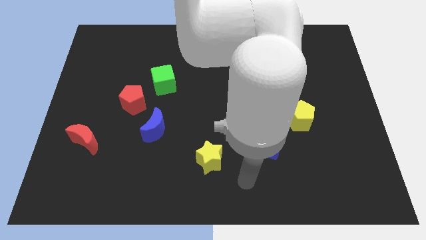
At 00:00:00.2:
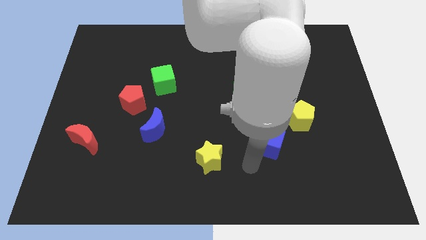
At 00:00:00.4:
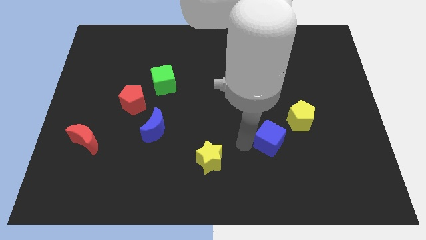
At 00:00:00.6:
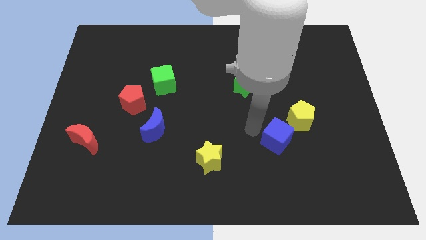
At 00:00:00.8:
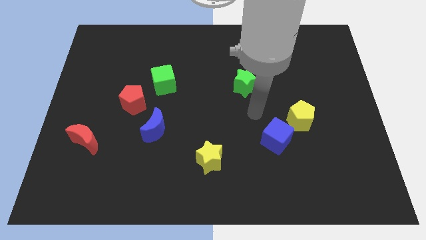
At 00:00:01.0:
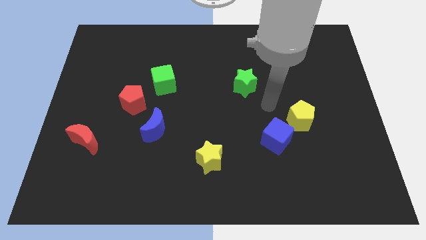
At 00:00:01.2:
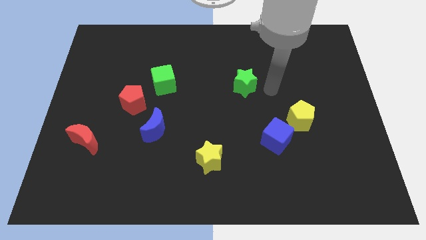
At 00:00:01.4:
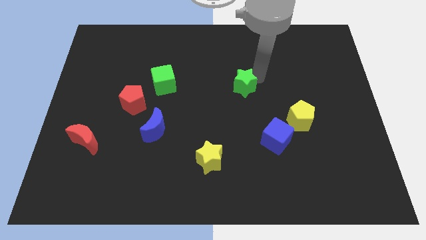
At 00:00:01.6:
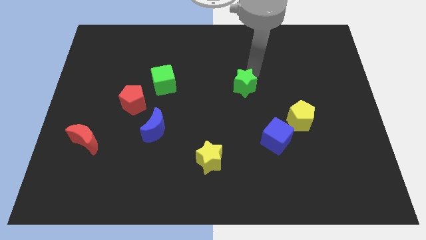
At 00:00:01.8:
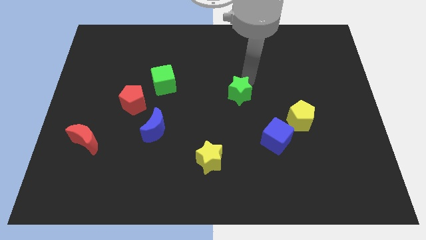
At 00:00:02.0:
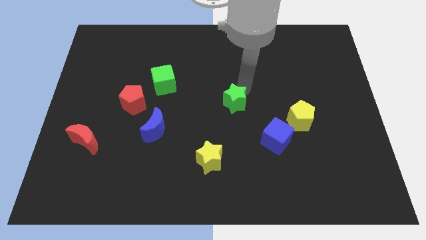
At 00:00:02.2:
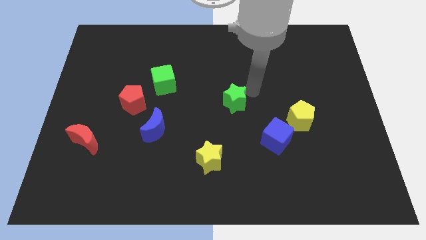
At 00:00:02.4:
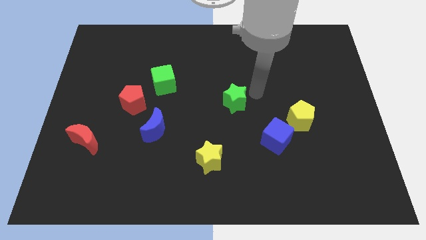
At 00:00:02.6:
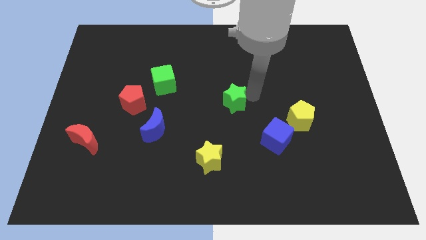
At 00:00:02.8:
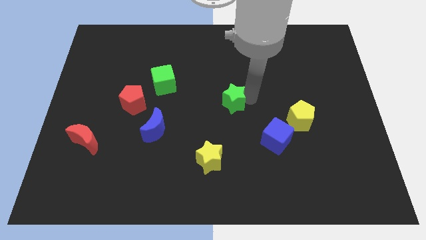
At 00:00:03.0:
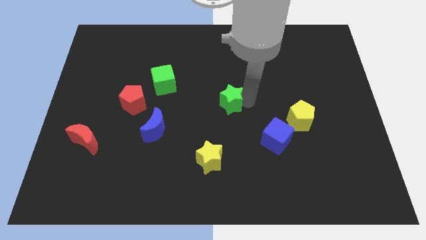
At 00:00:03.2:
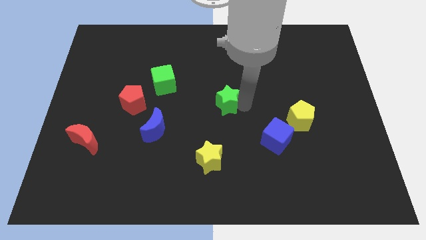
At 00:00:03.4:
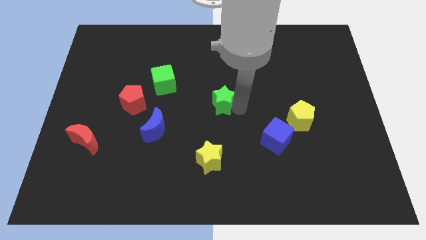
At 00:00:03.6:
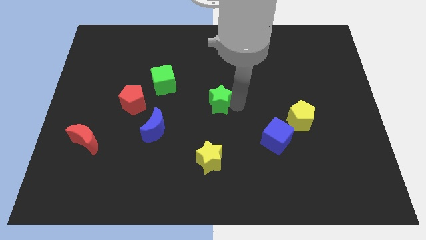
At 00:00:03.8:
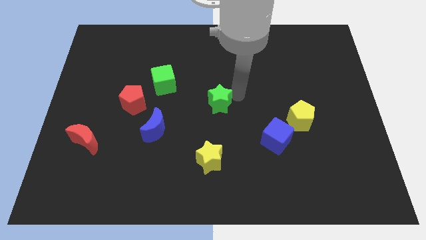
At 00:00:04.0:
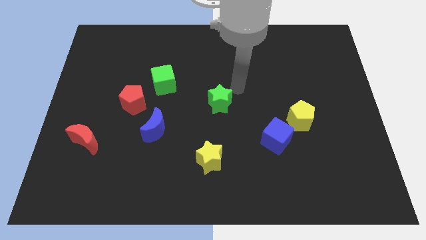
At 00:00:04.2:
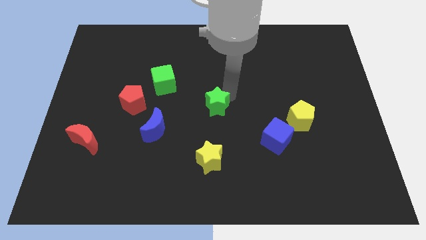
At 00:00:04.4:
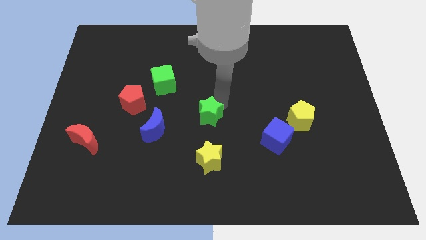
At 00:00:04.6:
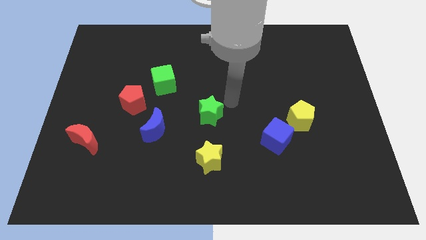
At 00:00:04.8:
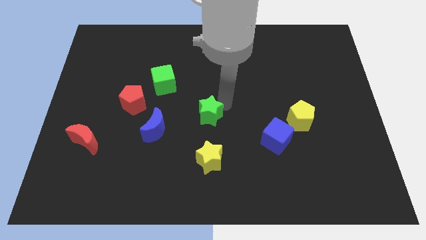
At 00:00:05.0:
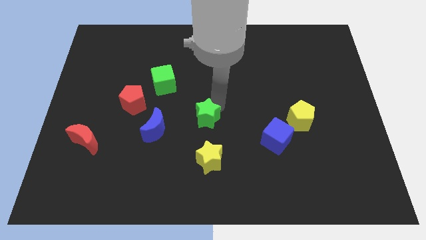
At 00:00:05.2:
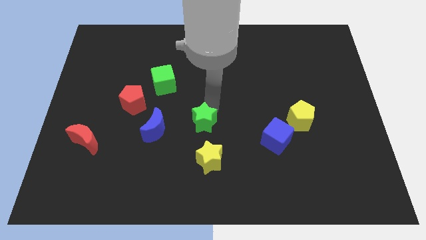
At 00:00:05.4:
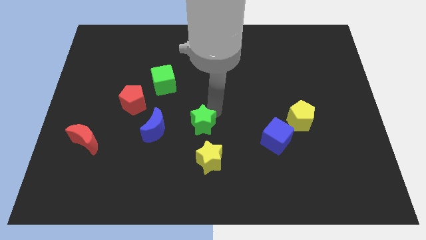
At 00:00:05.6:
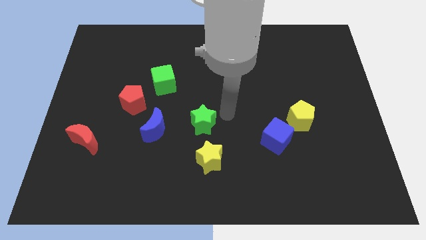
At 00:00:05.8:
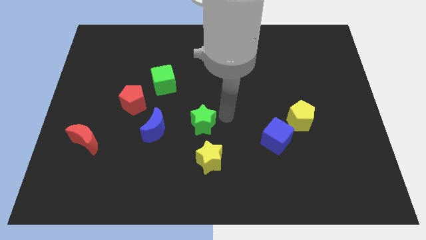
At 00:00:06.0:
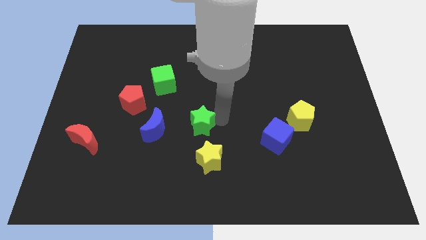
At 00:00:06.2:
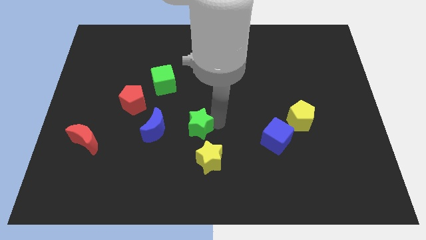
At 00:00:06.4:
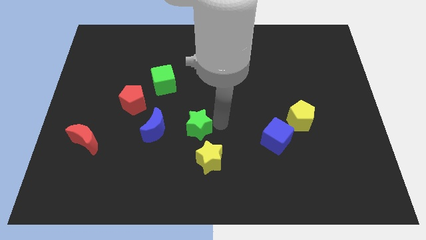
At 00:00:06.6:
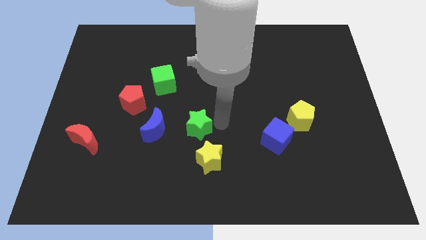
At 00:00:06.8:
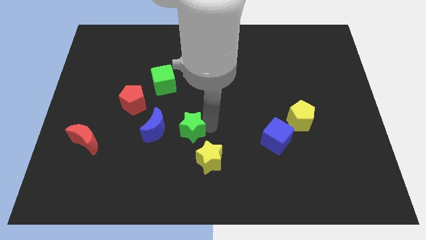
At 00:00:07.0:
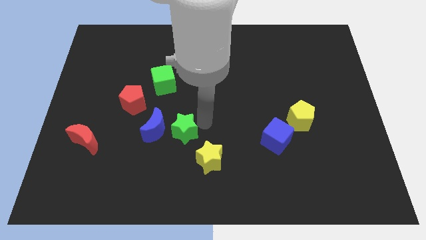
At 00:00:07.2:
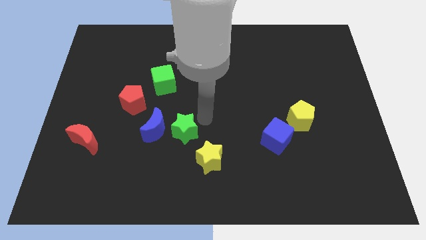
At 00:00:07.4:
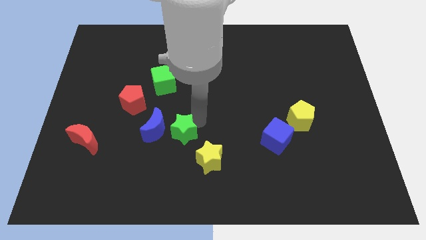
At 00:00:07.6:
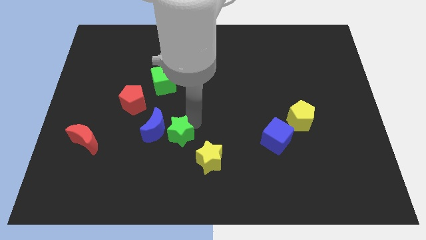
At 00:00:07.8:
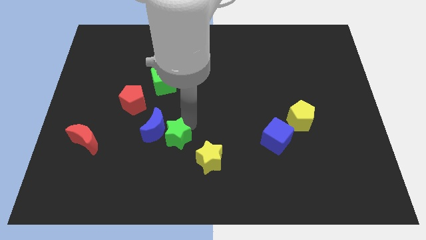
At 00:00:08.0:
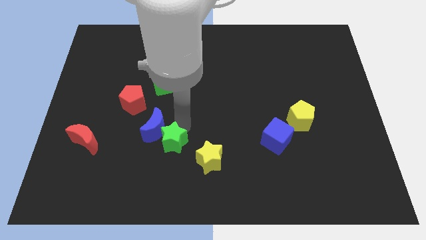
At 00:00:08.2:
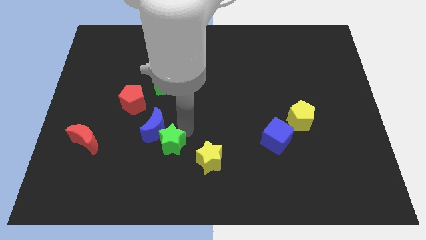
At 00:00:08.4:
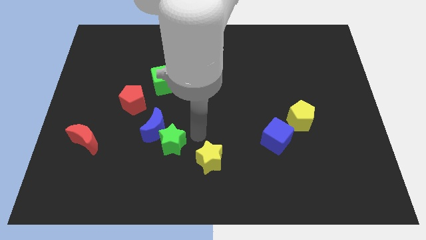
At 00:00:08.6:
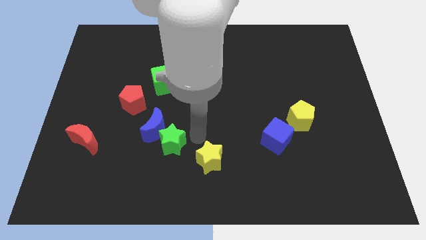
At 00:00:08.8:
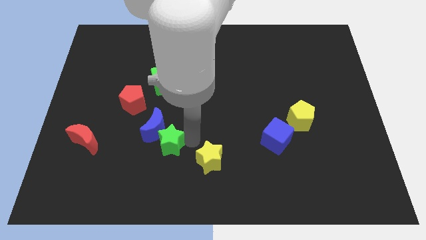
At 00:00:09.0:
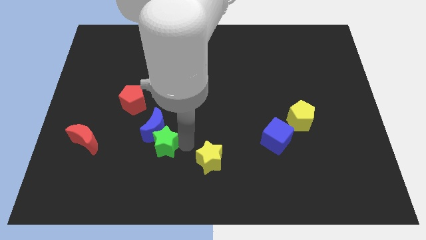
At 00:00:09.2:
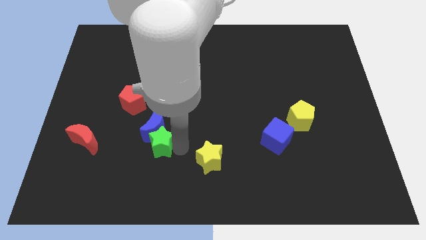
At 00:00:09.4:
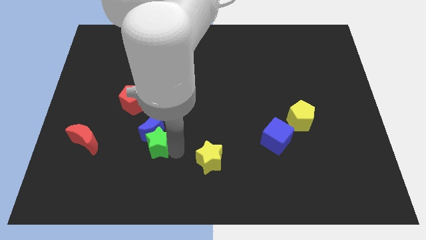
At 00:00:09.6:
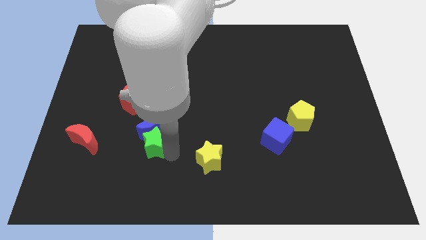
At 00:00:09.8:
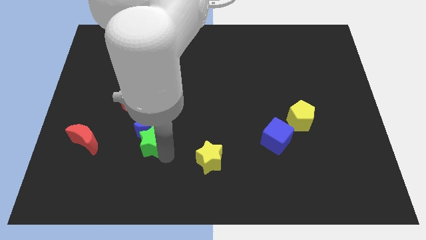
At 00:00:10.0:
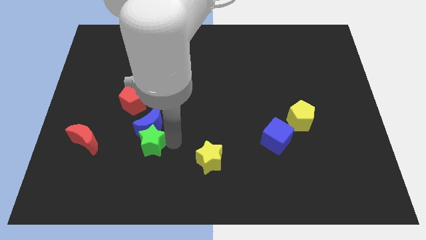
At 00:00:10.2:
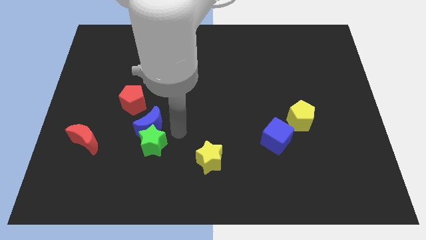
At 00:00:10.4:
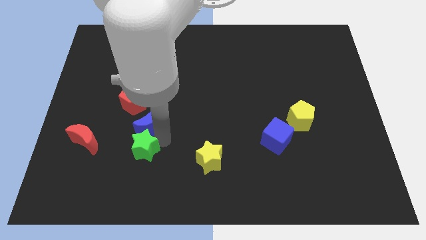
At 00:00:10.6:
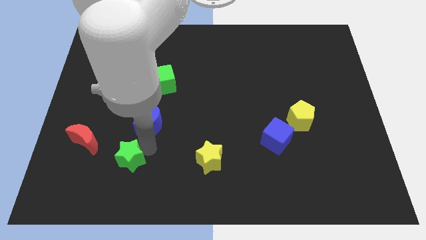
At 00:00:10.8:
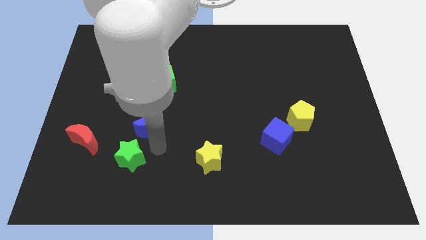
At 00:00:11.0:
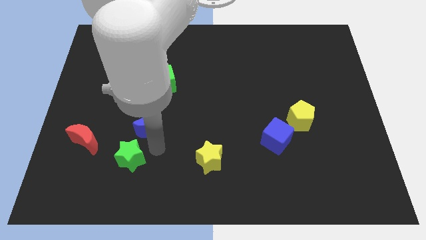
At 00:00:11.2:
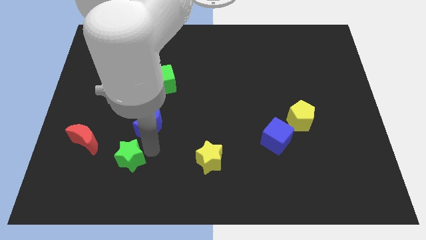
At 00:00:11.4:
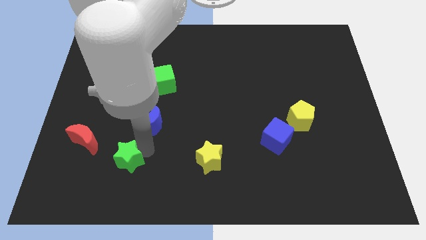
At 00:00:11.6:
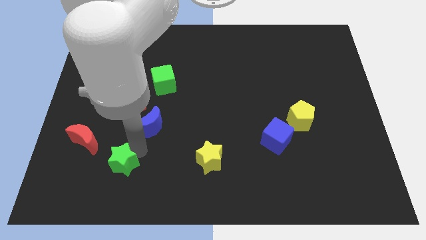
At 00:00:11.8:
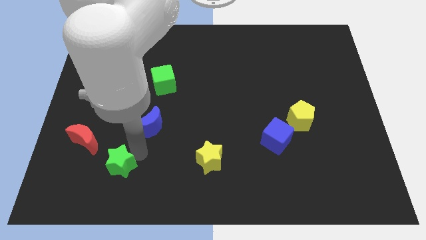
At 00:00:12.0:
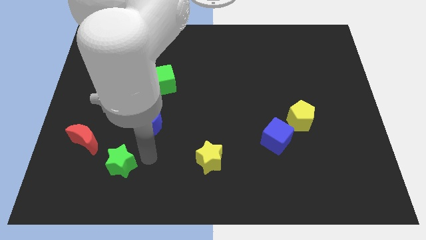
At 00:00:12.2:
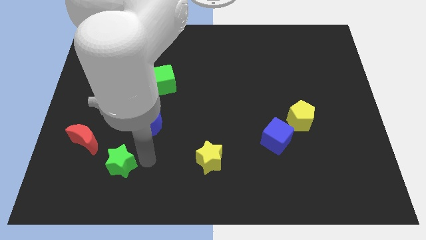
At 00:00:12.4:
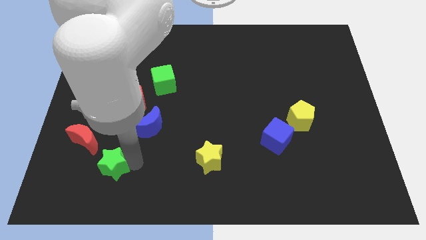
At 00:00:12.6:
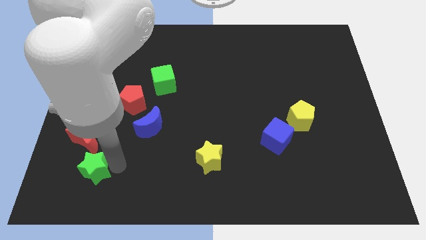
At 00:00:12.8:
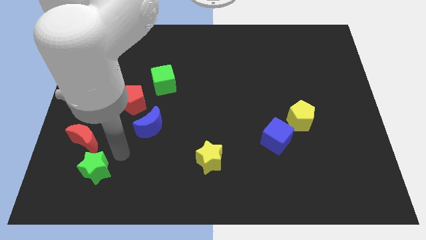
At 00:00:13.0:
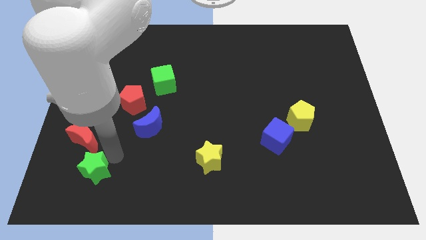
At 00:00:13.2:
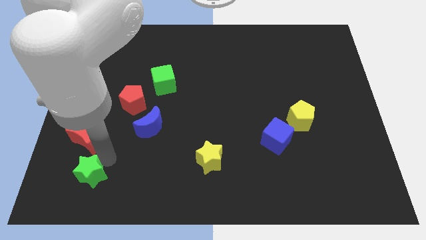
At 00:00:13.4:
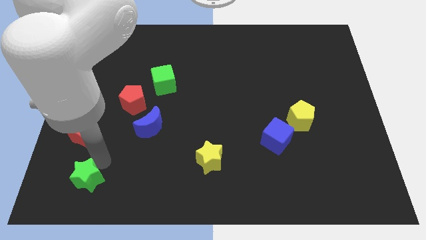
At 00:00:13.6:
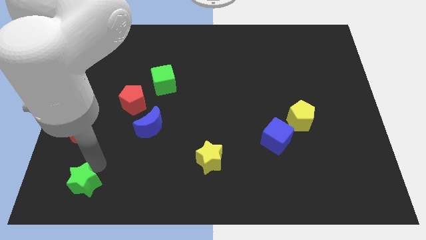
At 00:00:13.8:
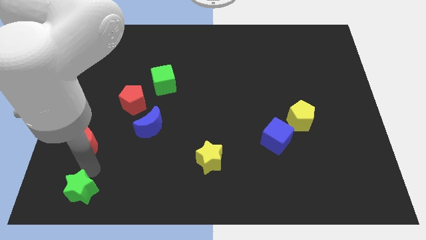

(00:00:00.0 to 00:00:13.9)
slide the green star to the bottom left of the board

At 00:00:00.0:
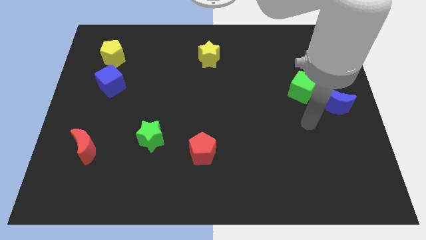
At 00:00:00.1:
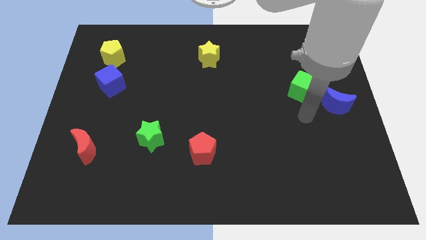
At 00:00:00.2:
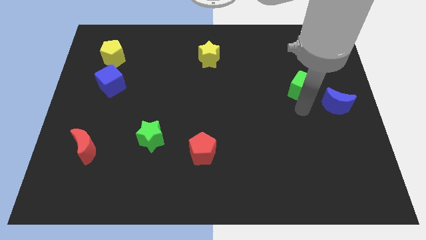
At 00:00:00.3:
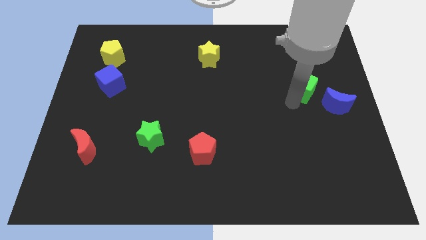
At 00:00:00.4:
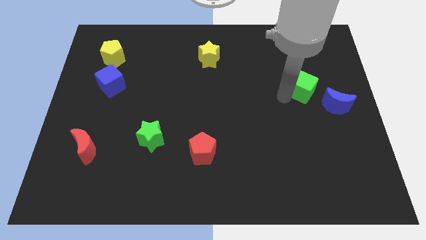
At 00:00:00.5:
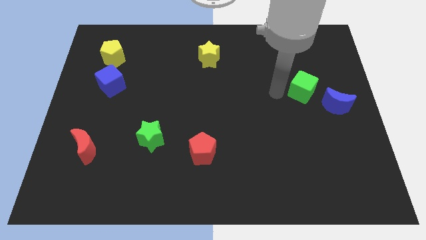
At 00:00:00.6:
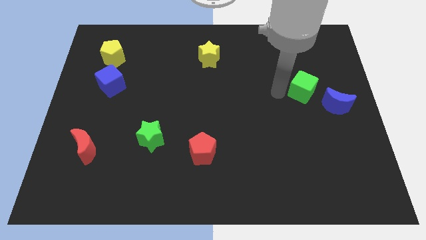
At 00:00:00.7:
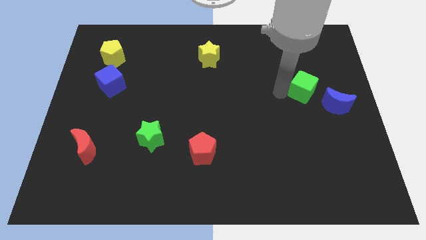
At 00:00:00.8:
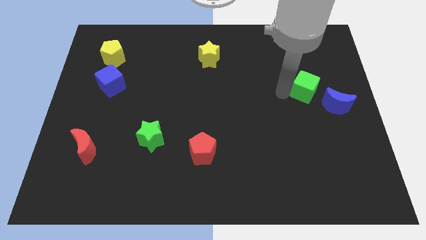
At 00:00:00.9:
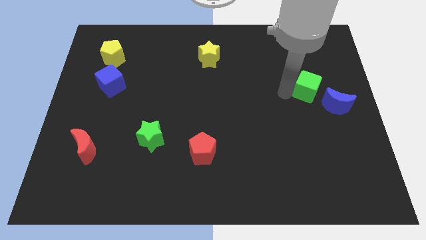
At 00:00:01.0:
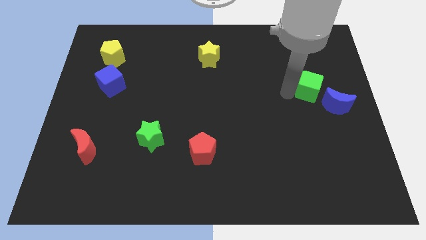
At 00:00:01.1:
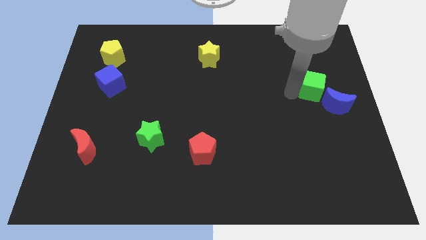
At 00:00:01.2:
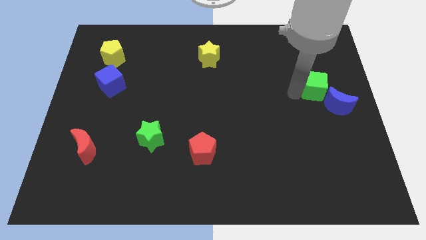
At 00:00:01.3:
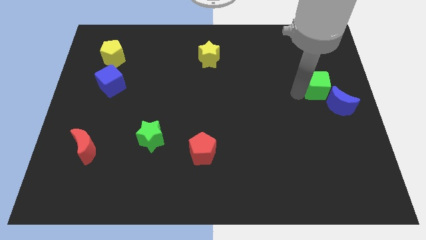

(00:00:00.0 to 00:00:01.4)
slide the green cube to the right side
